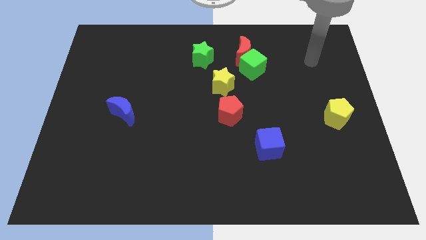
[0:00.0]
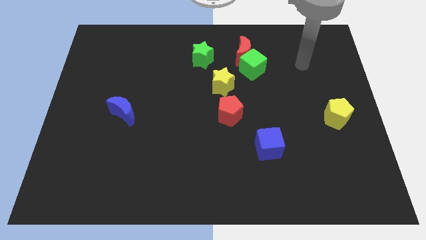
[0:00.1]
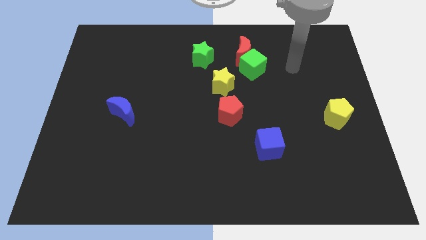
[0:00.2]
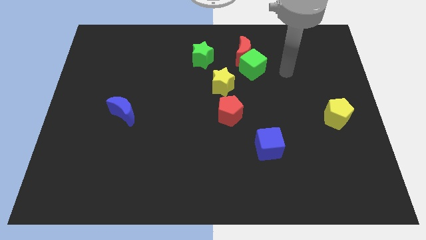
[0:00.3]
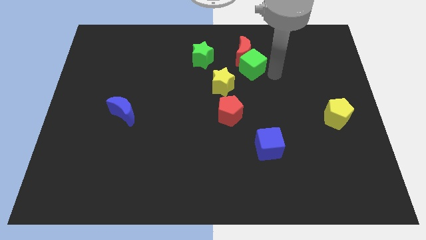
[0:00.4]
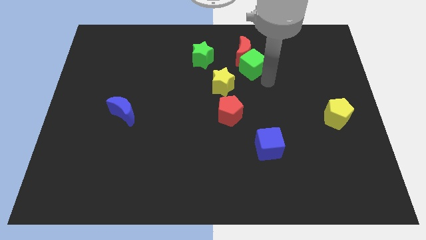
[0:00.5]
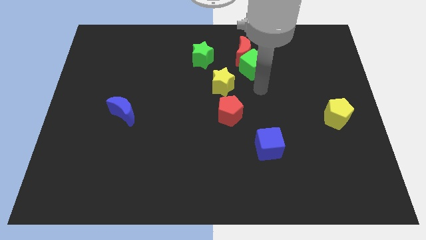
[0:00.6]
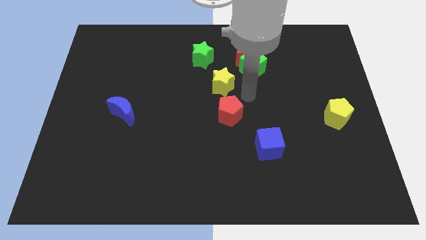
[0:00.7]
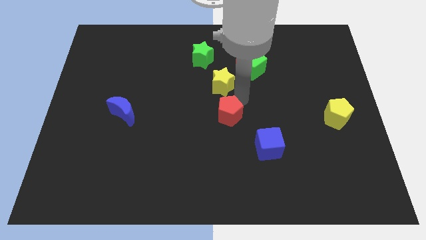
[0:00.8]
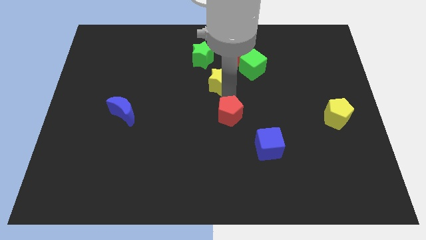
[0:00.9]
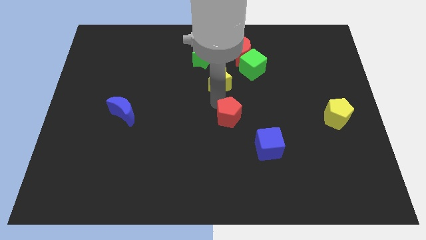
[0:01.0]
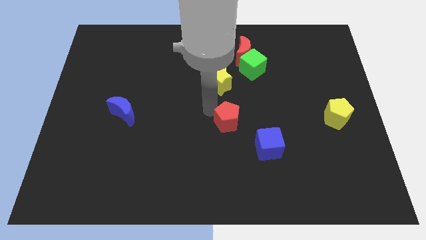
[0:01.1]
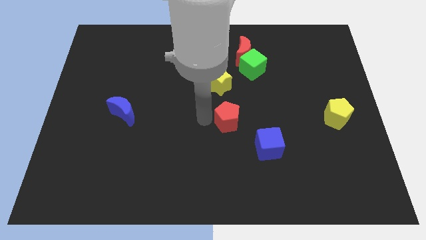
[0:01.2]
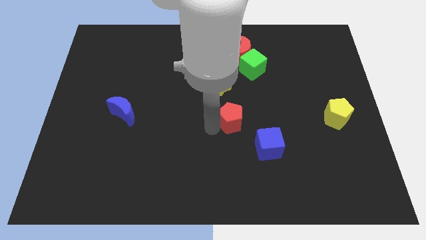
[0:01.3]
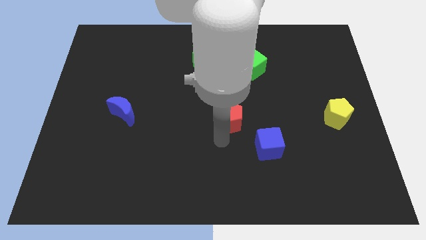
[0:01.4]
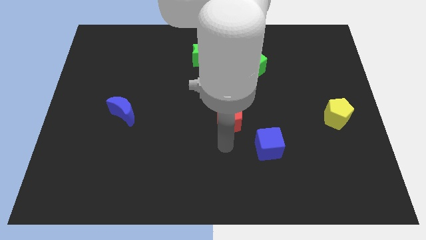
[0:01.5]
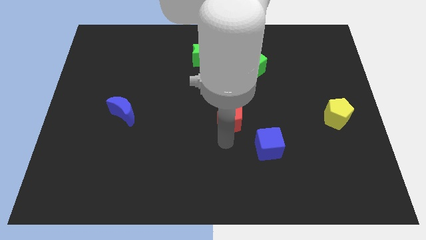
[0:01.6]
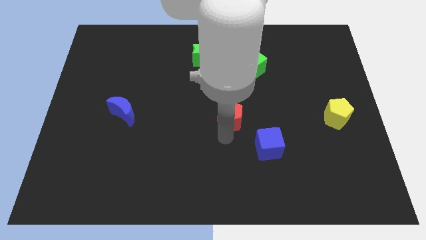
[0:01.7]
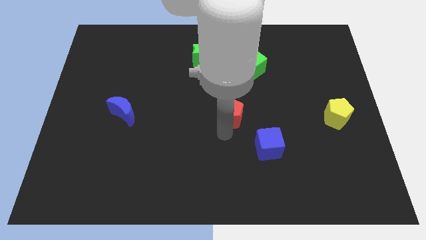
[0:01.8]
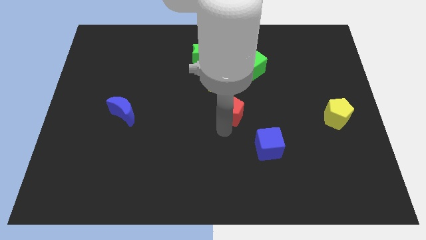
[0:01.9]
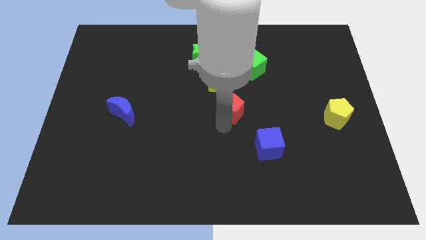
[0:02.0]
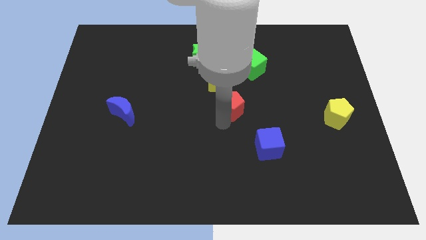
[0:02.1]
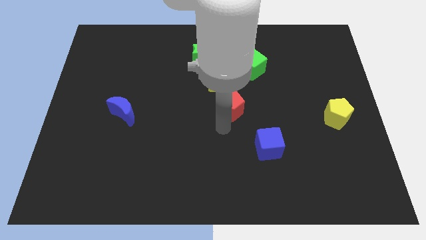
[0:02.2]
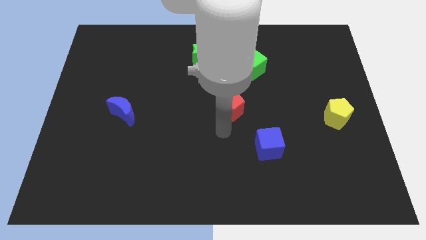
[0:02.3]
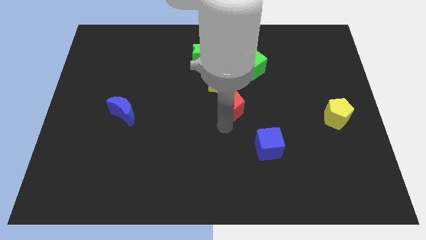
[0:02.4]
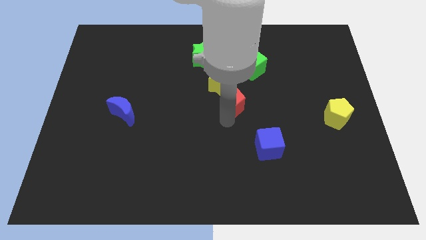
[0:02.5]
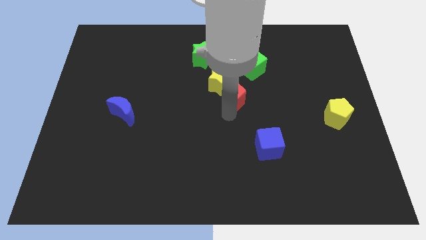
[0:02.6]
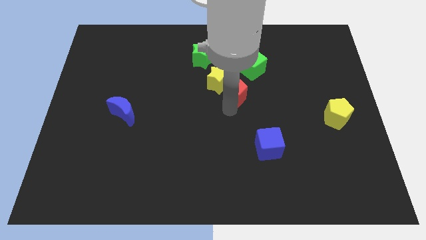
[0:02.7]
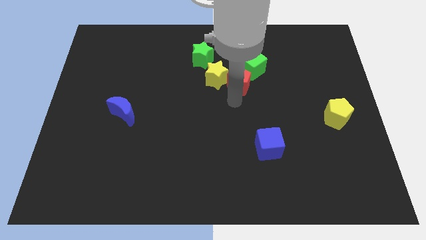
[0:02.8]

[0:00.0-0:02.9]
slightly slide the red pentagon up

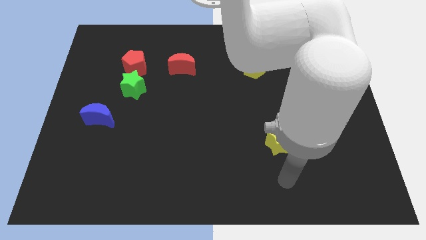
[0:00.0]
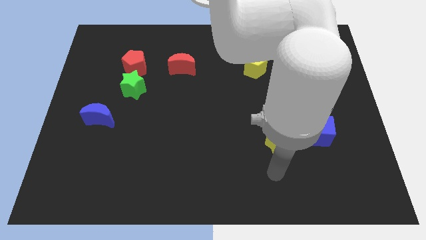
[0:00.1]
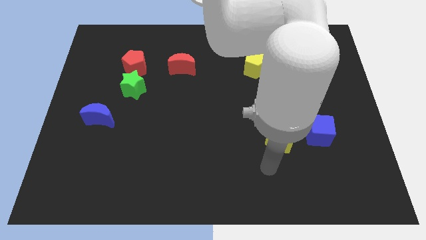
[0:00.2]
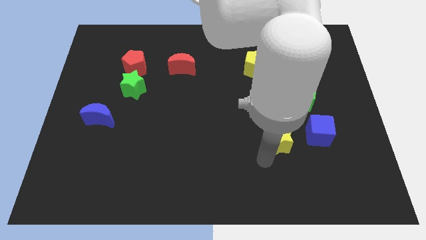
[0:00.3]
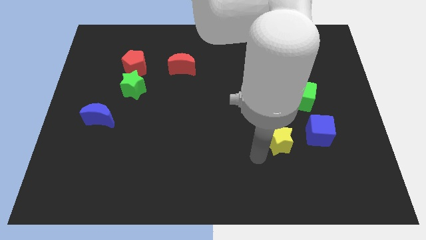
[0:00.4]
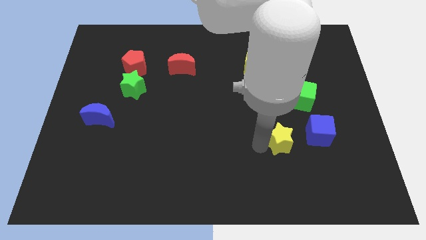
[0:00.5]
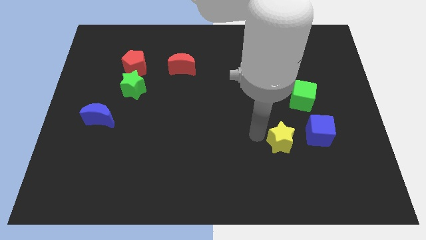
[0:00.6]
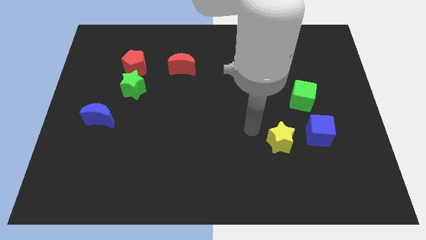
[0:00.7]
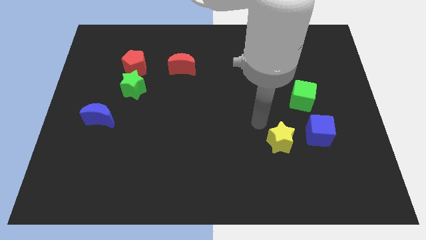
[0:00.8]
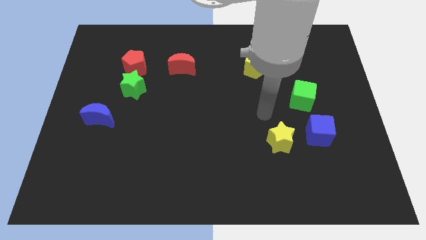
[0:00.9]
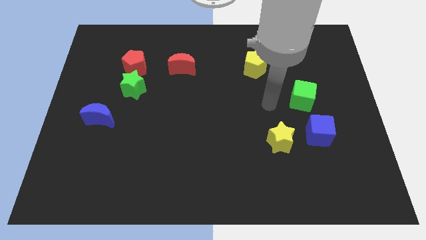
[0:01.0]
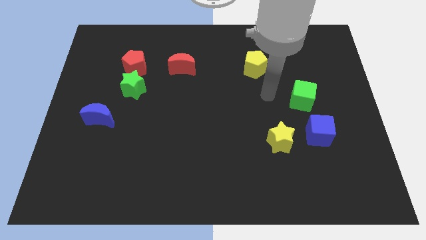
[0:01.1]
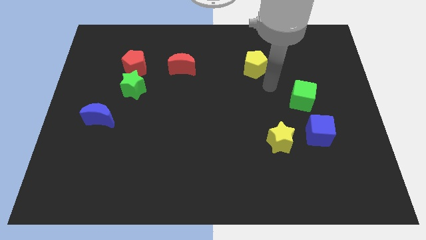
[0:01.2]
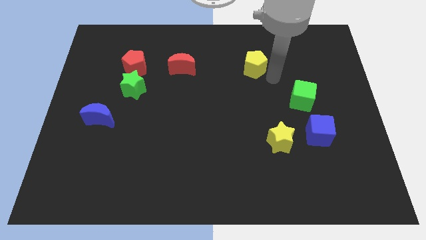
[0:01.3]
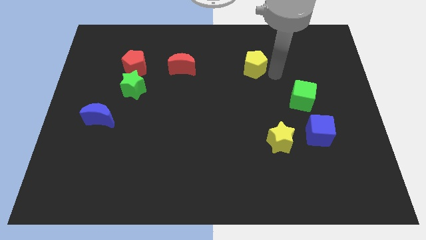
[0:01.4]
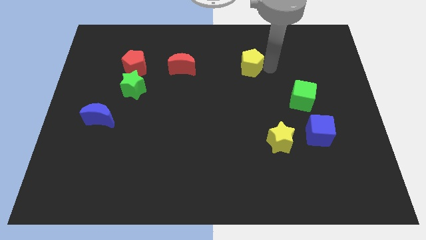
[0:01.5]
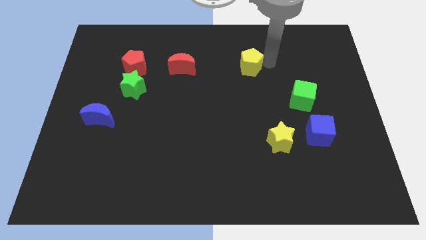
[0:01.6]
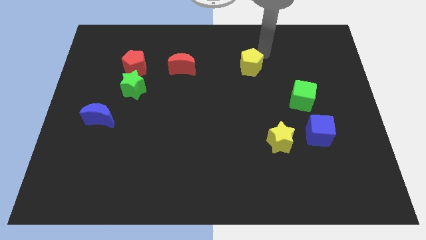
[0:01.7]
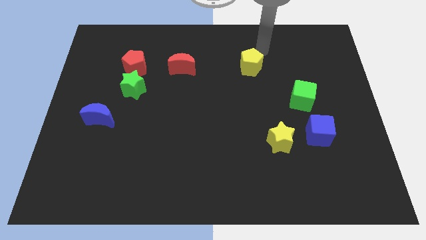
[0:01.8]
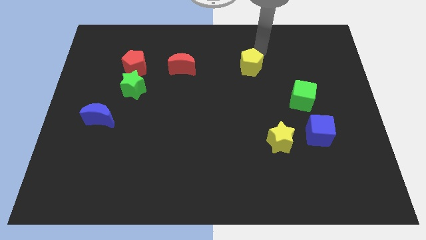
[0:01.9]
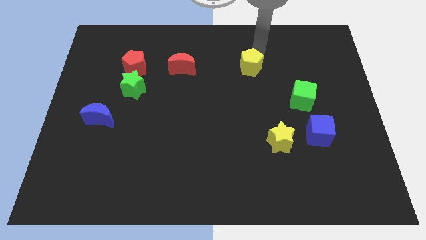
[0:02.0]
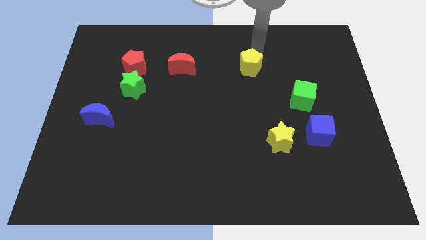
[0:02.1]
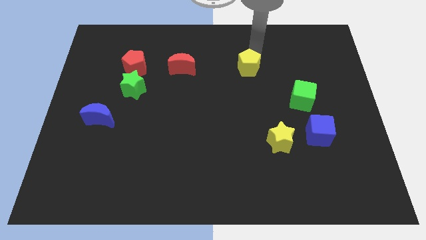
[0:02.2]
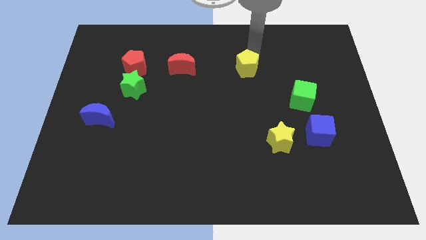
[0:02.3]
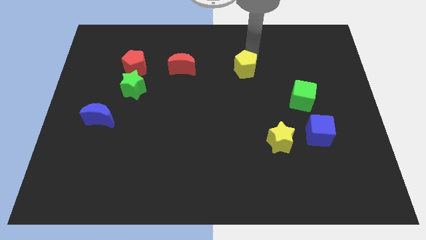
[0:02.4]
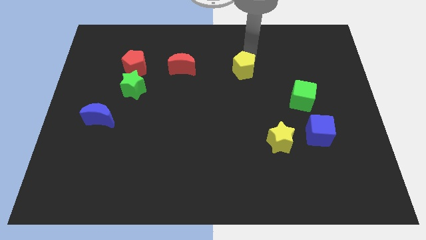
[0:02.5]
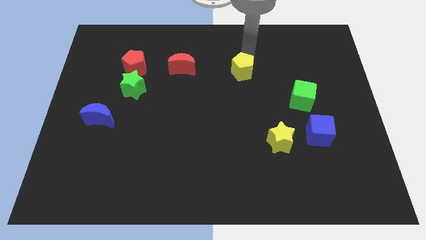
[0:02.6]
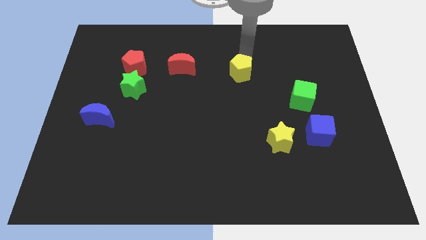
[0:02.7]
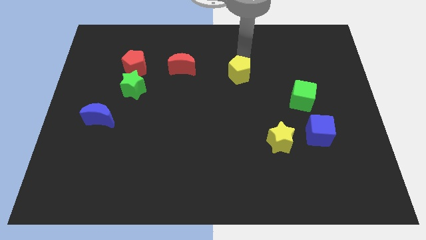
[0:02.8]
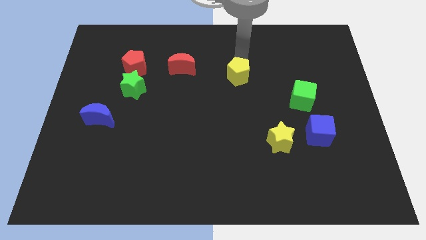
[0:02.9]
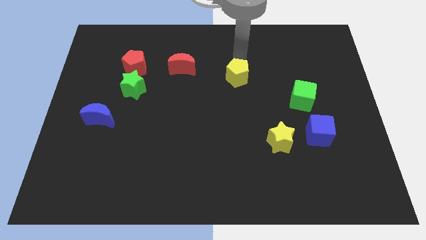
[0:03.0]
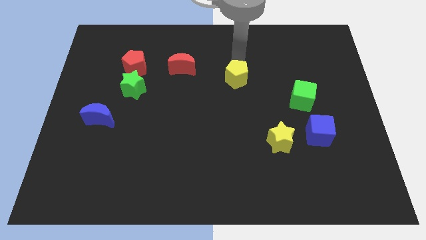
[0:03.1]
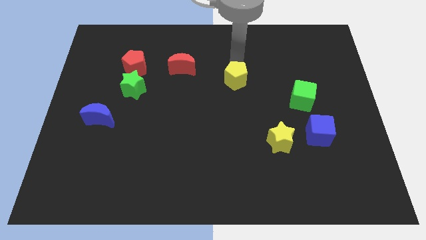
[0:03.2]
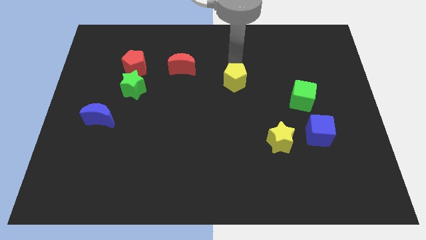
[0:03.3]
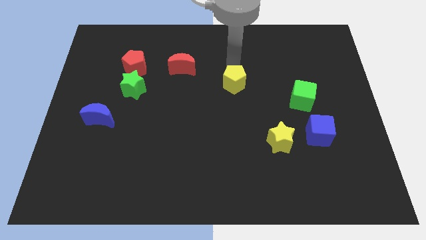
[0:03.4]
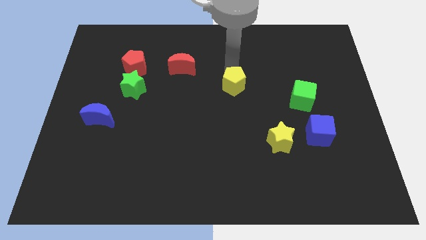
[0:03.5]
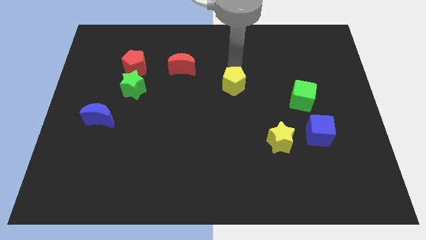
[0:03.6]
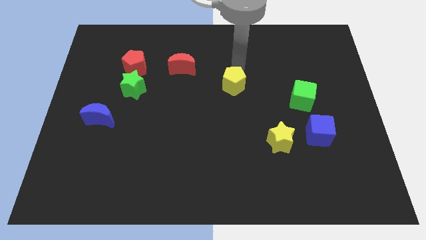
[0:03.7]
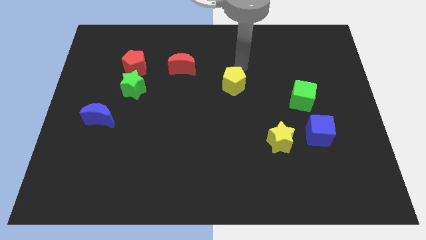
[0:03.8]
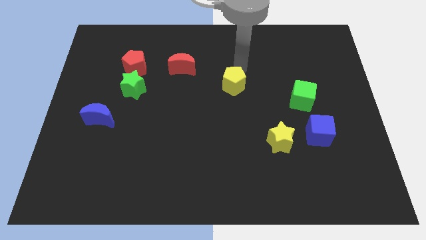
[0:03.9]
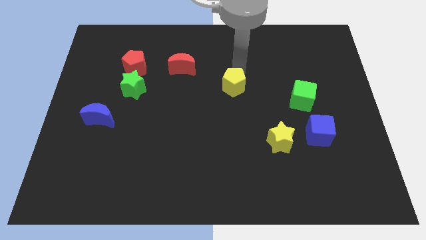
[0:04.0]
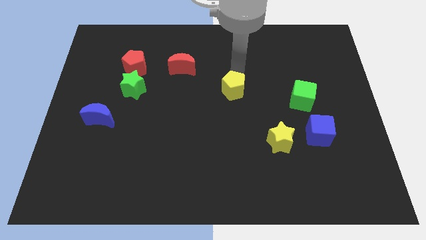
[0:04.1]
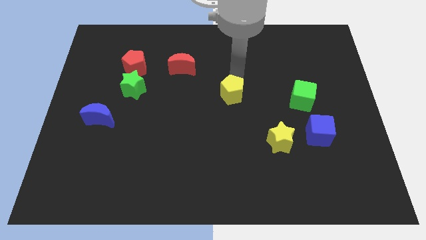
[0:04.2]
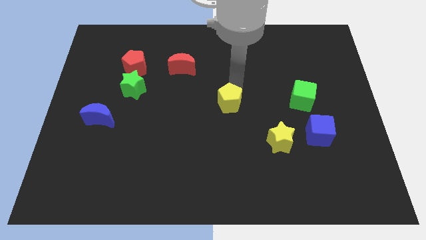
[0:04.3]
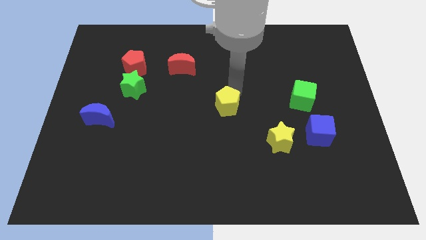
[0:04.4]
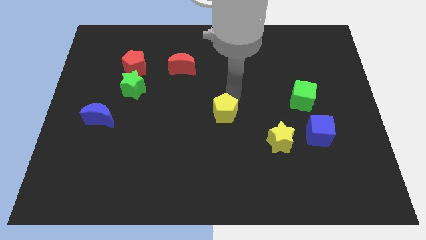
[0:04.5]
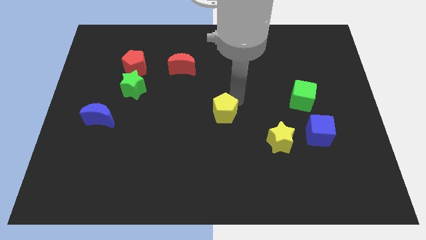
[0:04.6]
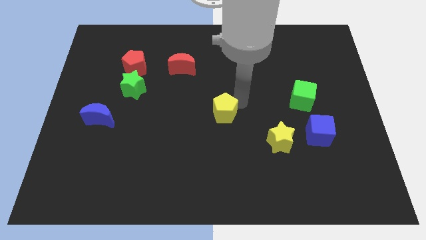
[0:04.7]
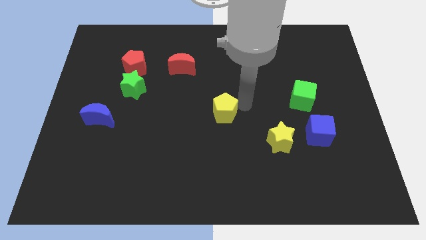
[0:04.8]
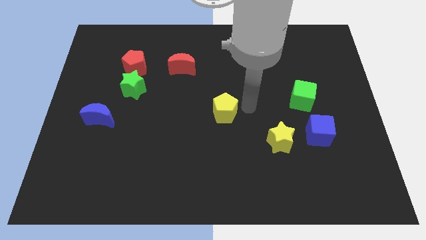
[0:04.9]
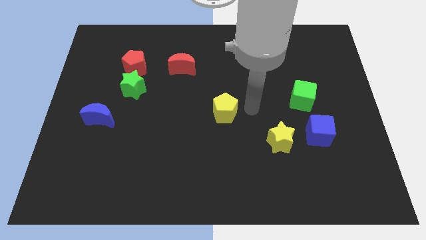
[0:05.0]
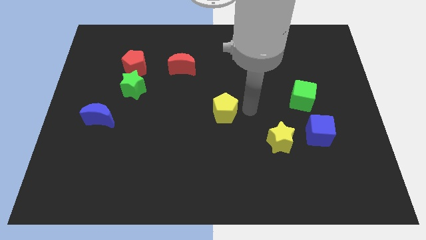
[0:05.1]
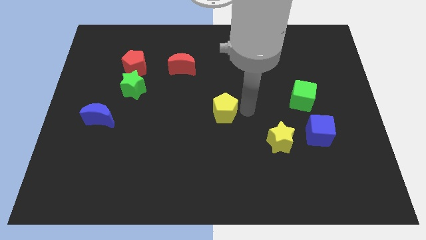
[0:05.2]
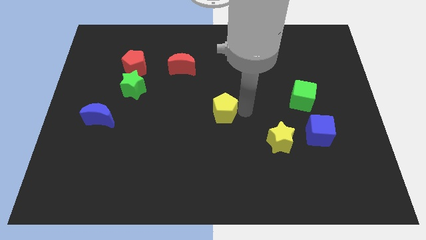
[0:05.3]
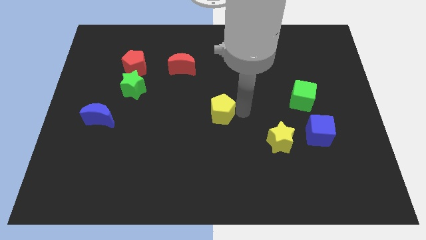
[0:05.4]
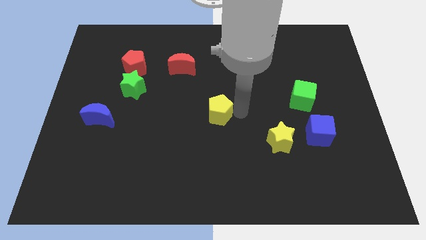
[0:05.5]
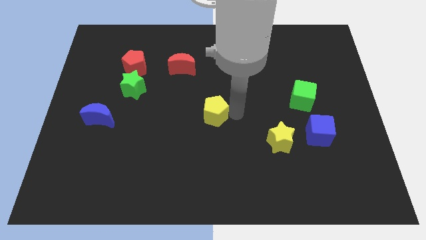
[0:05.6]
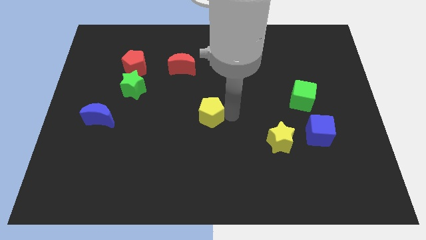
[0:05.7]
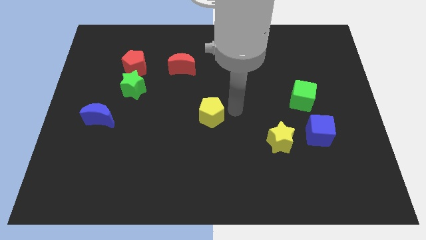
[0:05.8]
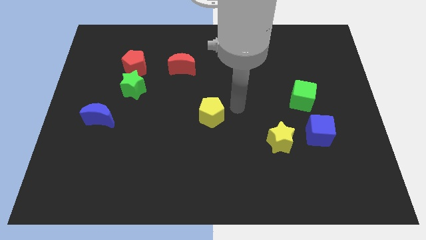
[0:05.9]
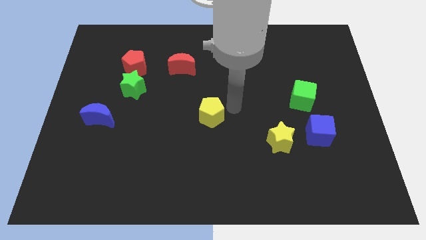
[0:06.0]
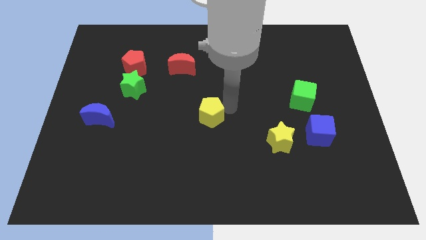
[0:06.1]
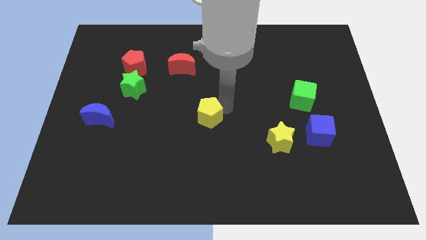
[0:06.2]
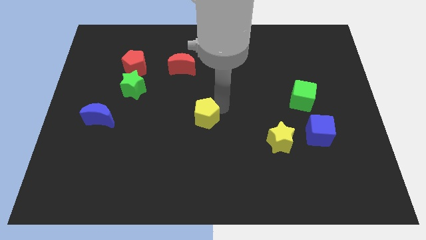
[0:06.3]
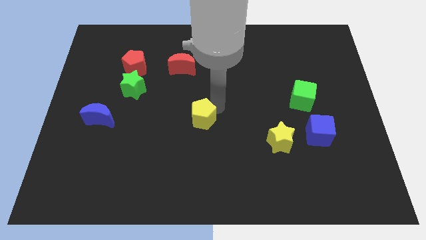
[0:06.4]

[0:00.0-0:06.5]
move the yellow pentagon diagonally downwards and left
